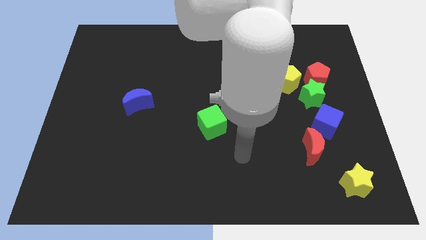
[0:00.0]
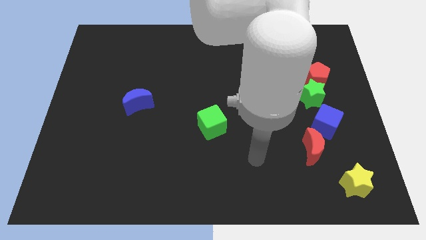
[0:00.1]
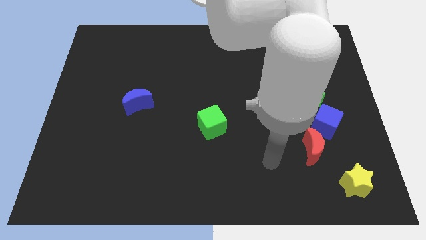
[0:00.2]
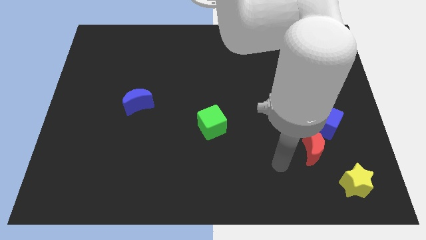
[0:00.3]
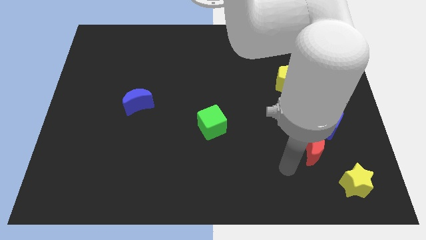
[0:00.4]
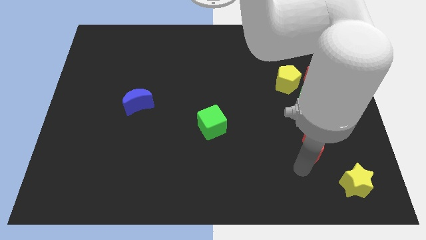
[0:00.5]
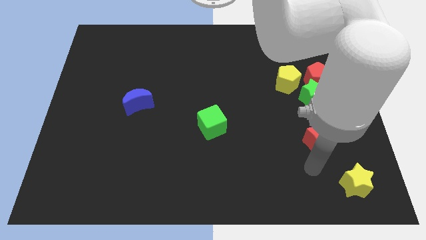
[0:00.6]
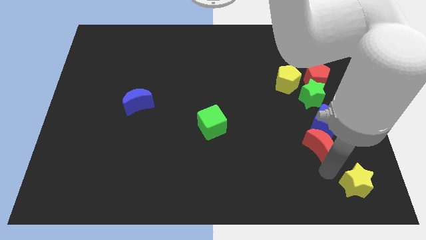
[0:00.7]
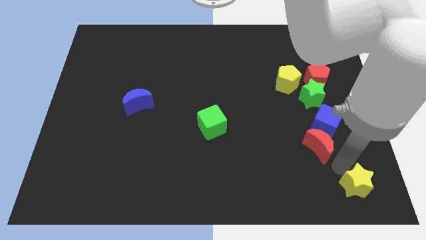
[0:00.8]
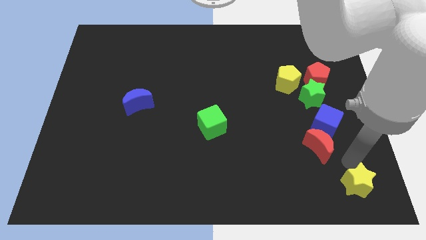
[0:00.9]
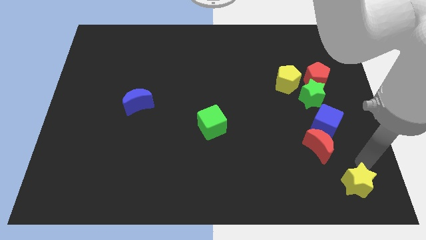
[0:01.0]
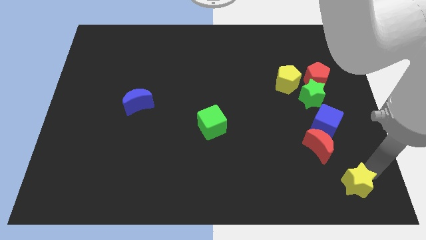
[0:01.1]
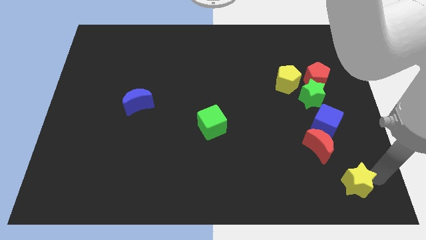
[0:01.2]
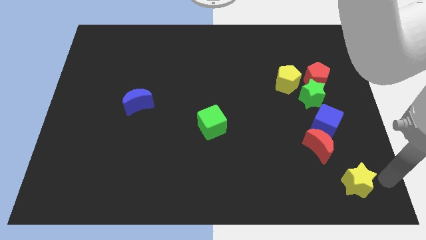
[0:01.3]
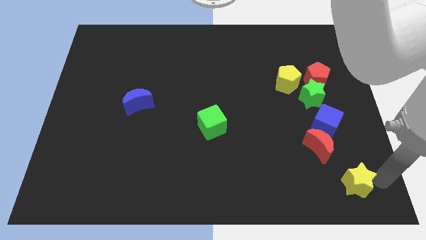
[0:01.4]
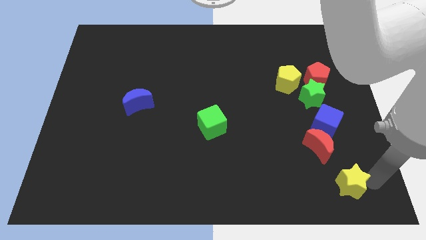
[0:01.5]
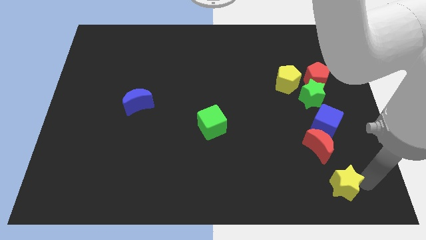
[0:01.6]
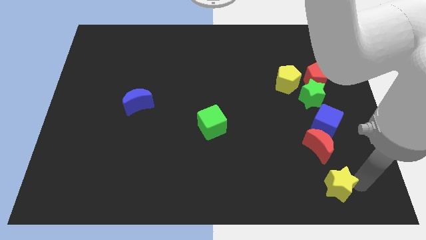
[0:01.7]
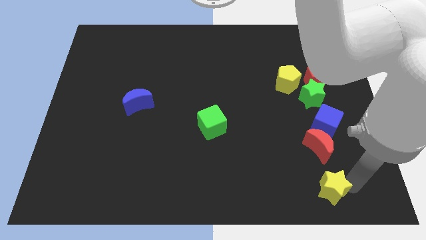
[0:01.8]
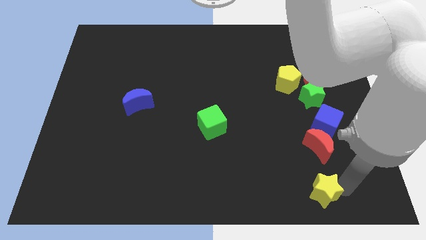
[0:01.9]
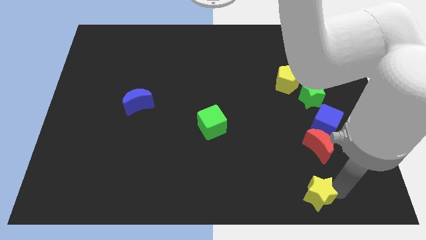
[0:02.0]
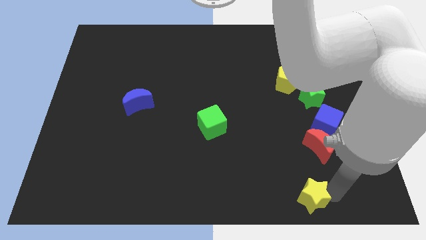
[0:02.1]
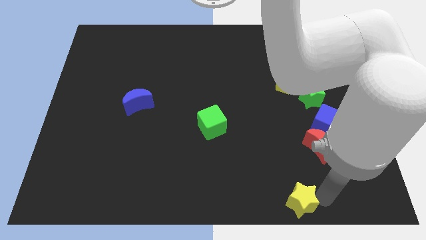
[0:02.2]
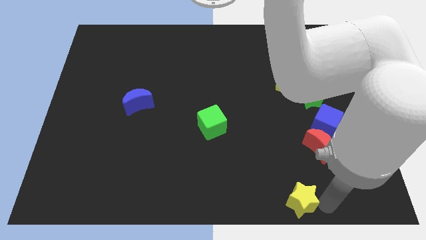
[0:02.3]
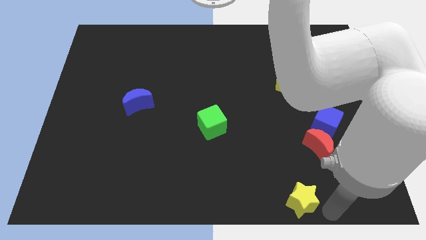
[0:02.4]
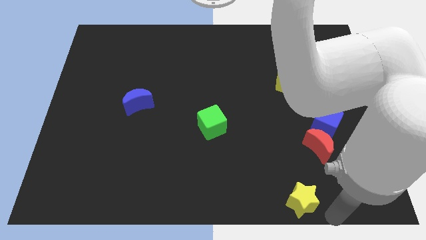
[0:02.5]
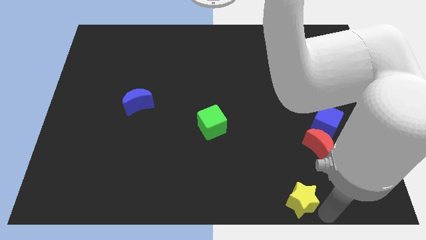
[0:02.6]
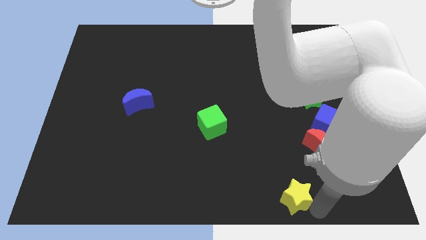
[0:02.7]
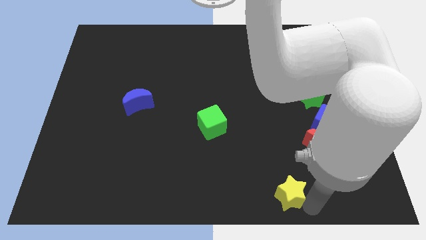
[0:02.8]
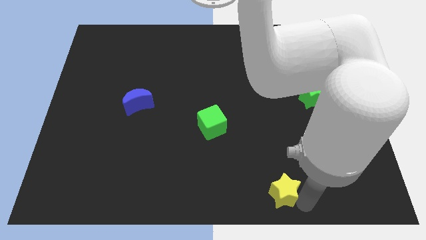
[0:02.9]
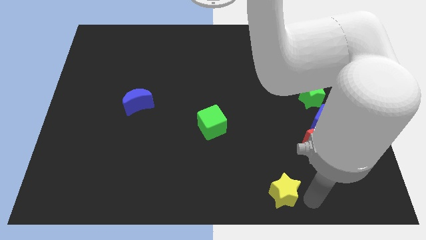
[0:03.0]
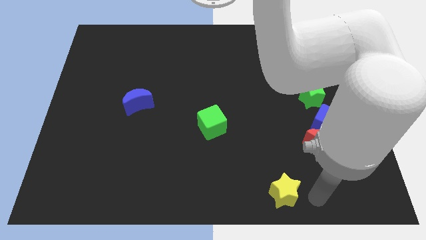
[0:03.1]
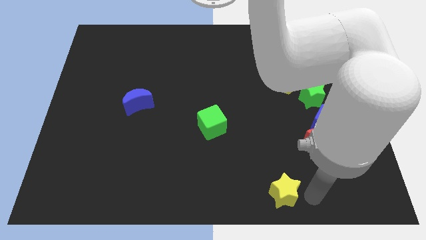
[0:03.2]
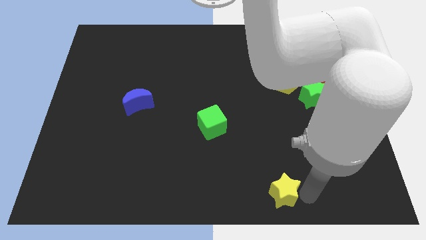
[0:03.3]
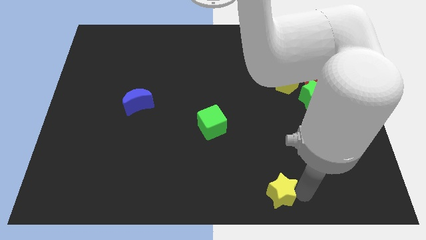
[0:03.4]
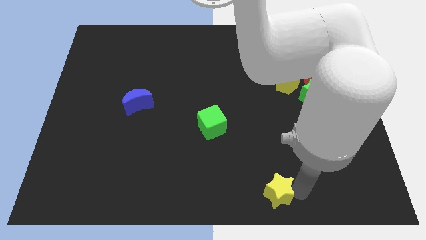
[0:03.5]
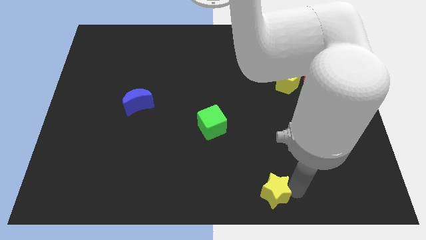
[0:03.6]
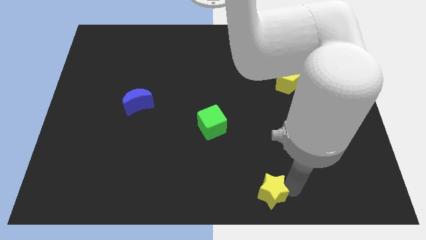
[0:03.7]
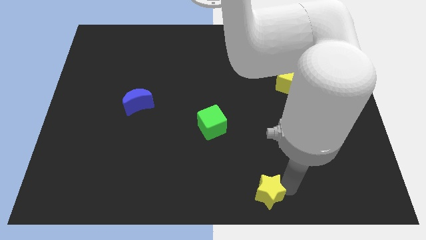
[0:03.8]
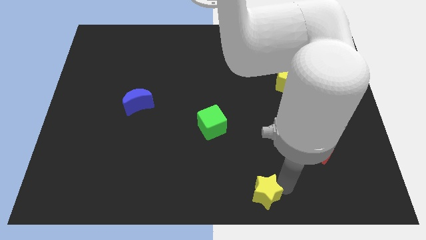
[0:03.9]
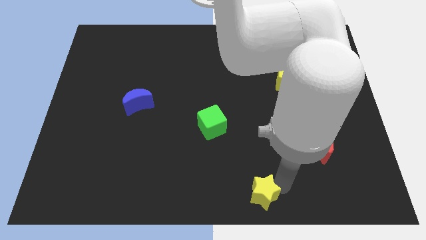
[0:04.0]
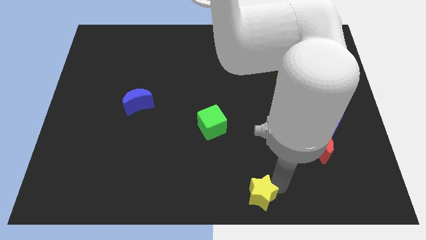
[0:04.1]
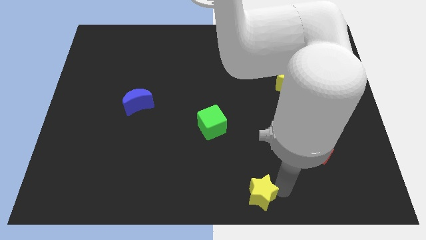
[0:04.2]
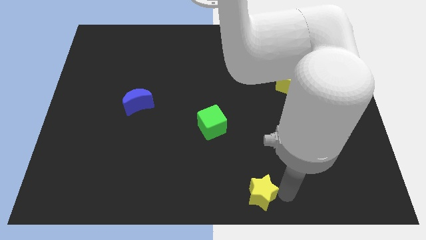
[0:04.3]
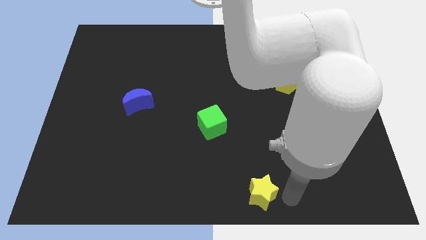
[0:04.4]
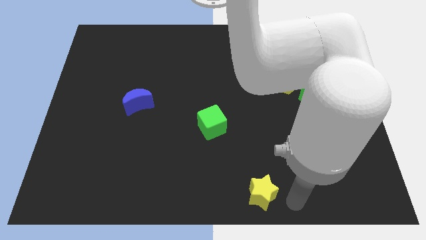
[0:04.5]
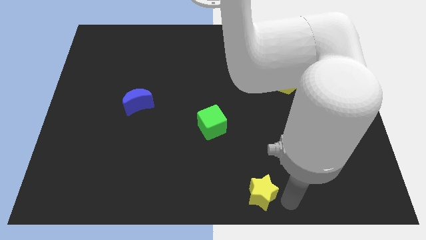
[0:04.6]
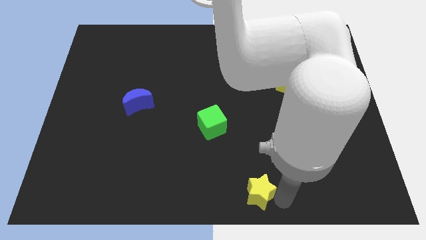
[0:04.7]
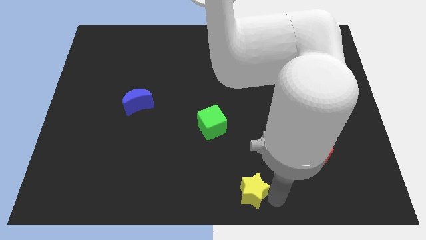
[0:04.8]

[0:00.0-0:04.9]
move the yellow star to the left

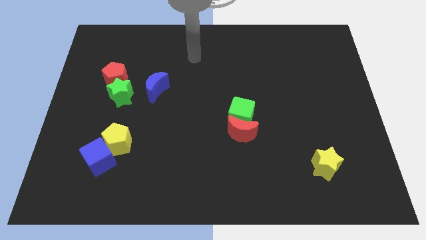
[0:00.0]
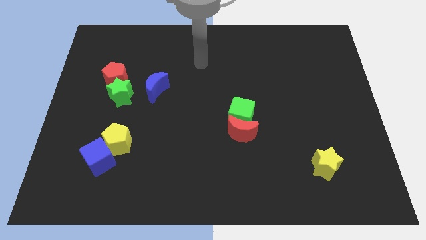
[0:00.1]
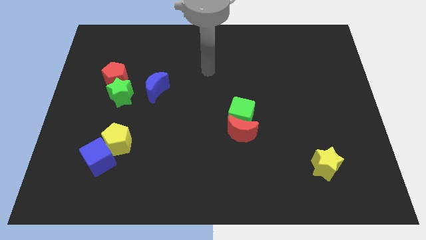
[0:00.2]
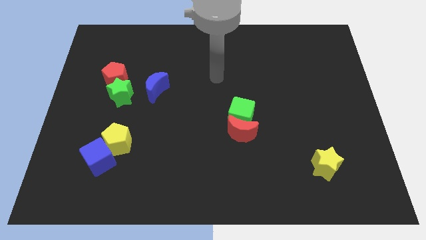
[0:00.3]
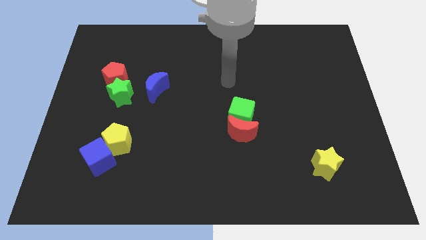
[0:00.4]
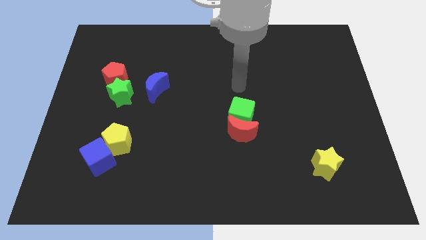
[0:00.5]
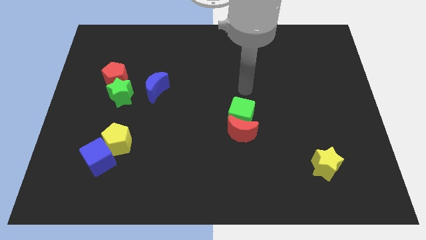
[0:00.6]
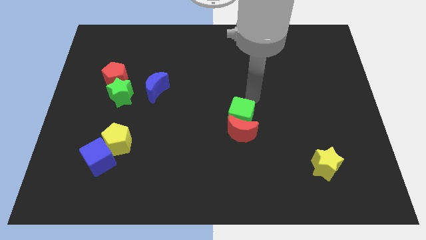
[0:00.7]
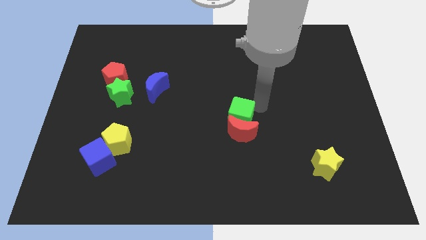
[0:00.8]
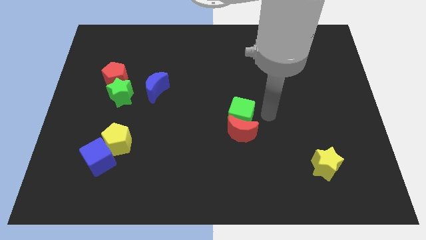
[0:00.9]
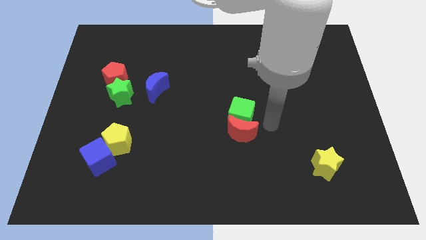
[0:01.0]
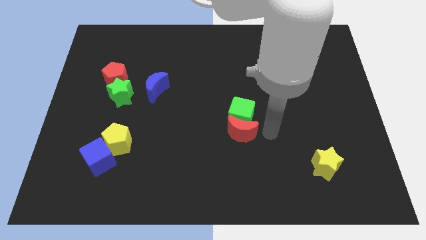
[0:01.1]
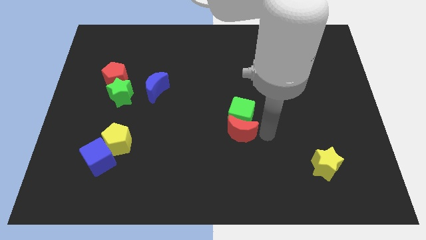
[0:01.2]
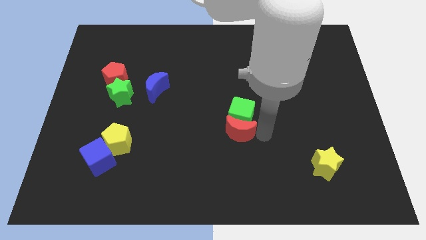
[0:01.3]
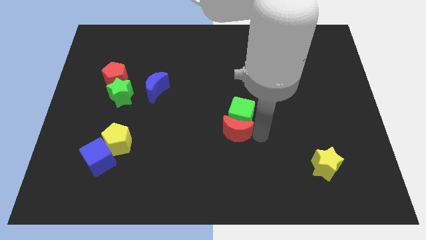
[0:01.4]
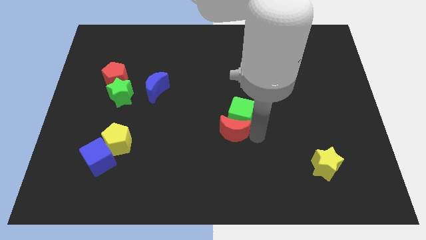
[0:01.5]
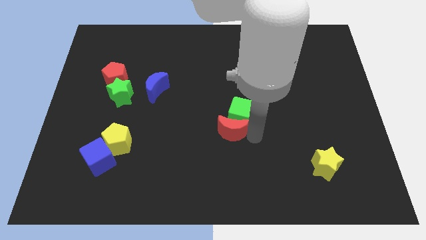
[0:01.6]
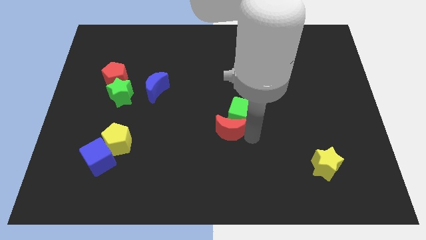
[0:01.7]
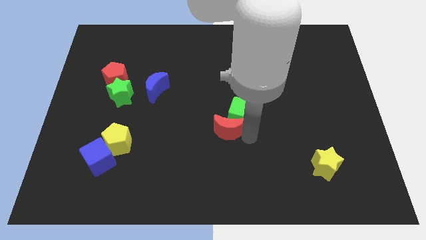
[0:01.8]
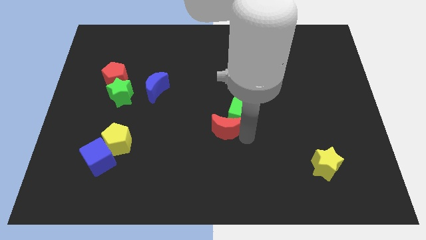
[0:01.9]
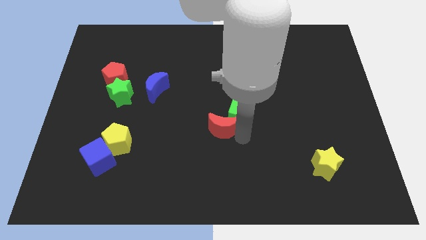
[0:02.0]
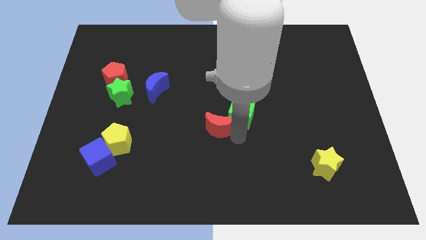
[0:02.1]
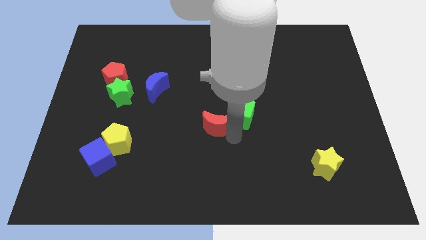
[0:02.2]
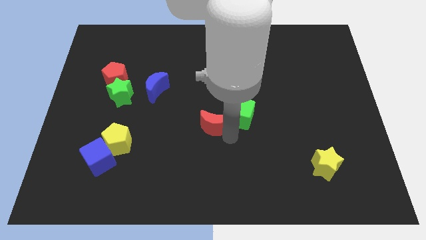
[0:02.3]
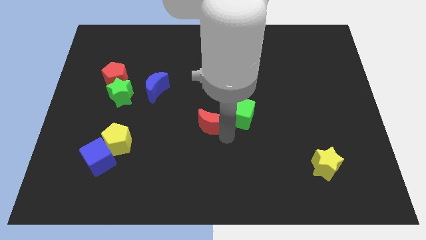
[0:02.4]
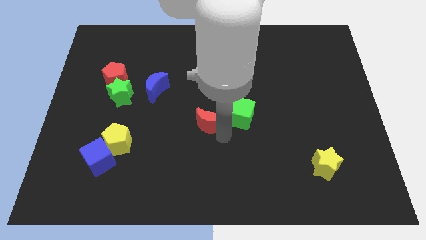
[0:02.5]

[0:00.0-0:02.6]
push the red moon to the left a little bit
